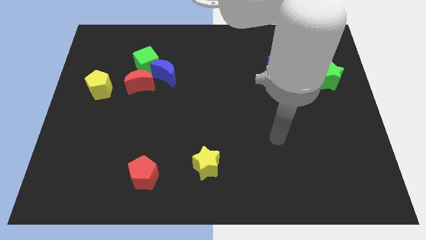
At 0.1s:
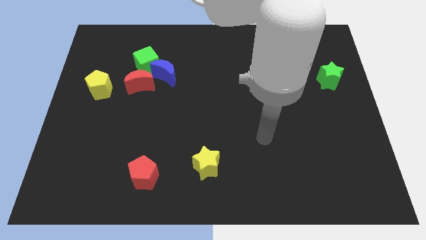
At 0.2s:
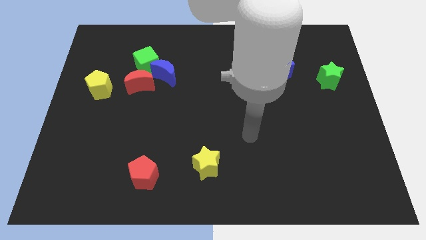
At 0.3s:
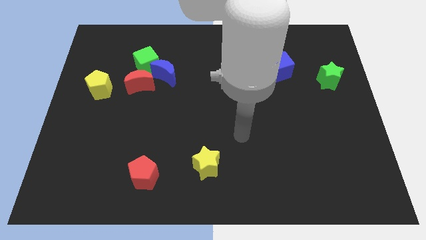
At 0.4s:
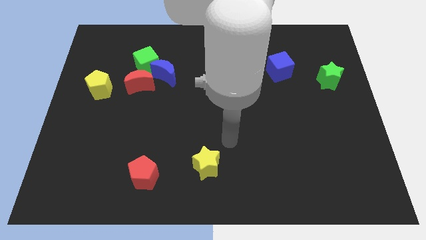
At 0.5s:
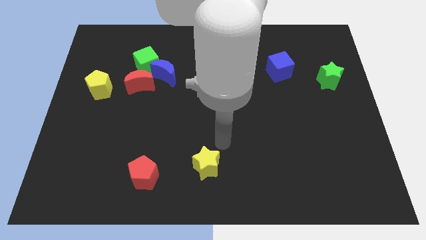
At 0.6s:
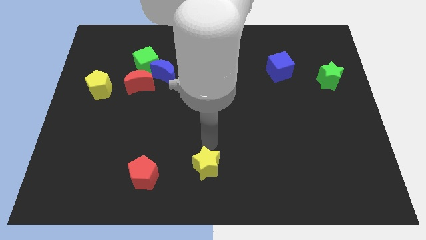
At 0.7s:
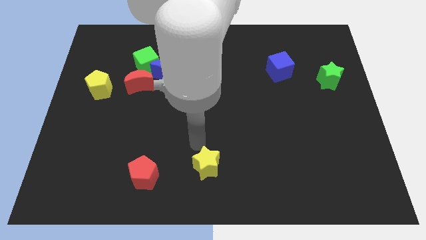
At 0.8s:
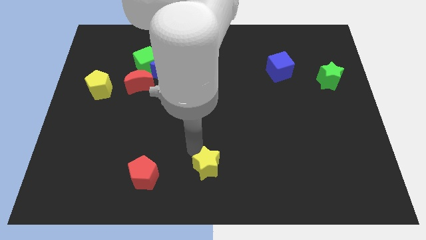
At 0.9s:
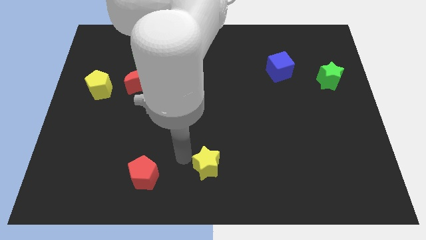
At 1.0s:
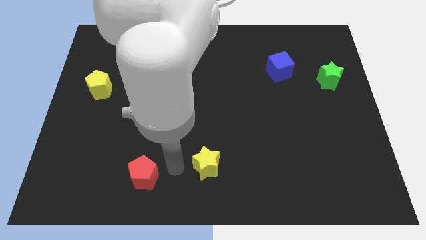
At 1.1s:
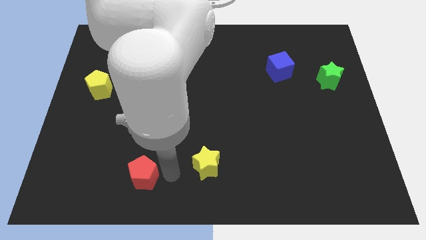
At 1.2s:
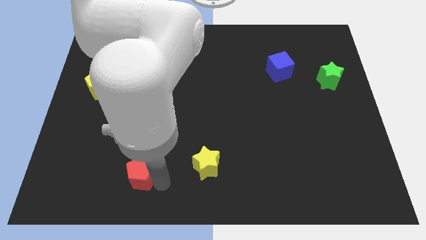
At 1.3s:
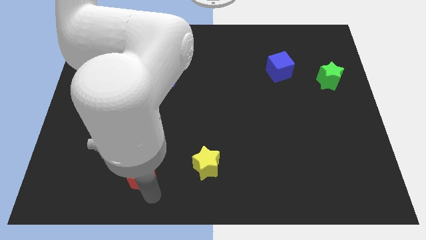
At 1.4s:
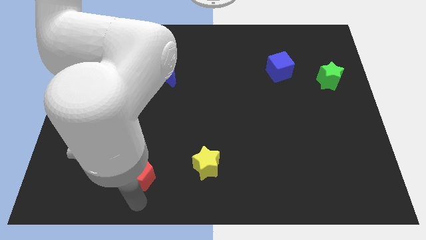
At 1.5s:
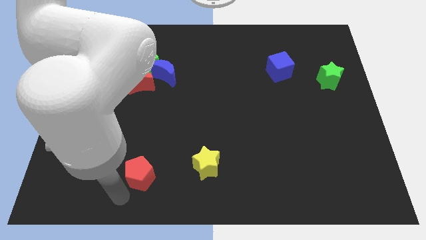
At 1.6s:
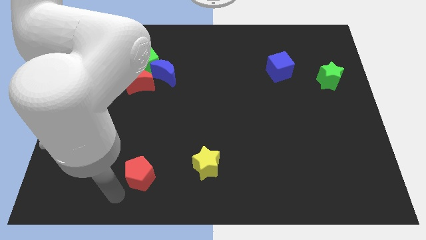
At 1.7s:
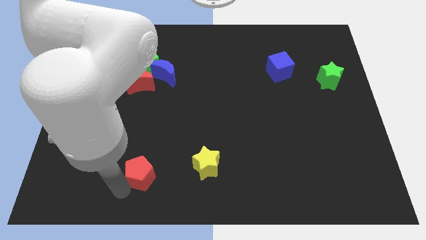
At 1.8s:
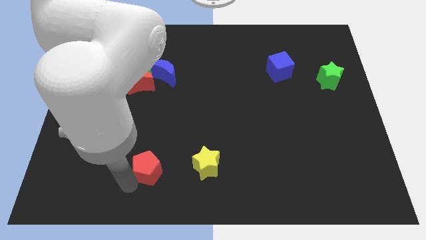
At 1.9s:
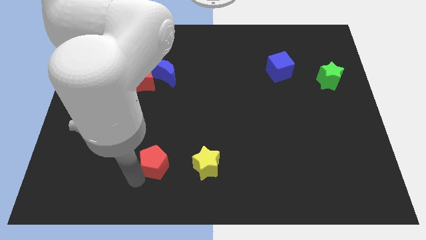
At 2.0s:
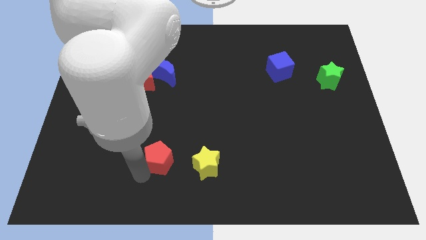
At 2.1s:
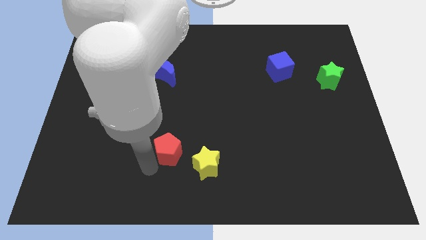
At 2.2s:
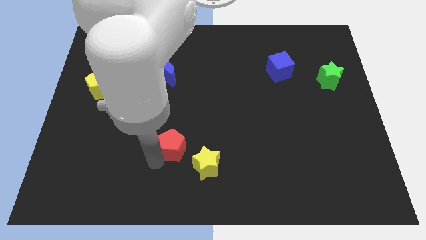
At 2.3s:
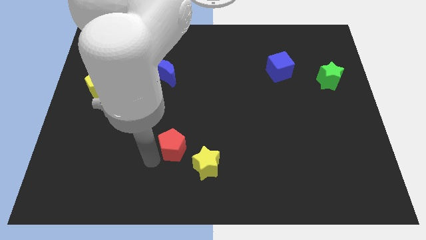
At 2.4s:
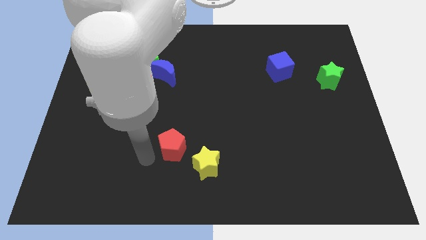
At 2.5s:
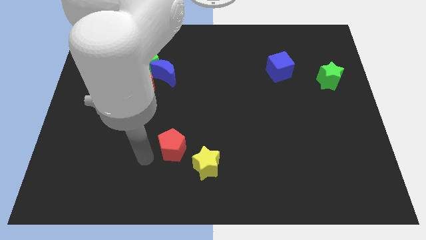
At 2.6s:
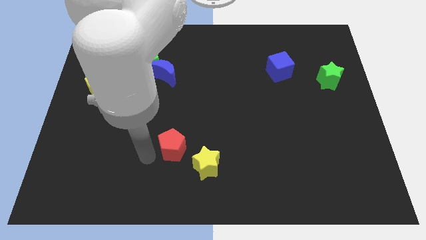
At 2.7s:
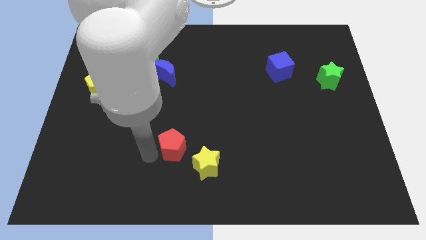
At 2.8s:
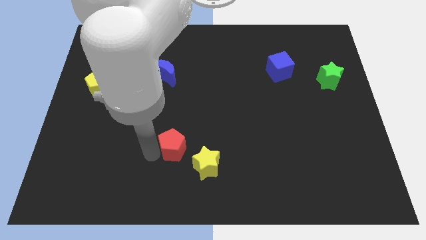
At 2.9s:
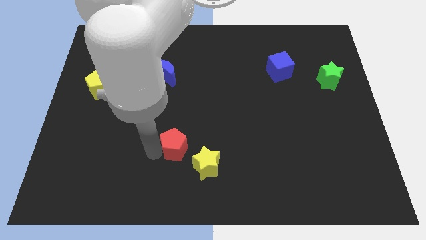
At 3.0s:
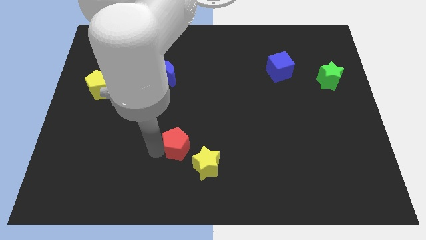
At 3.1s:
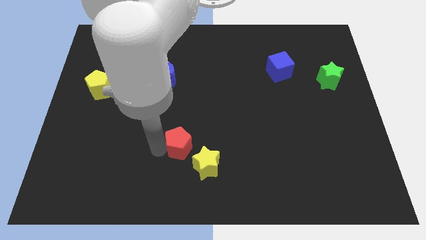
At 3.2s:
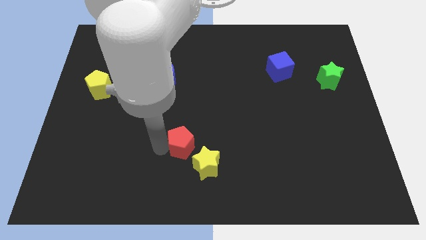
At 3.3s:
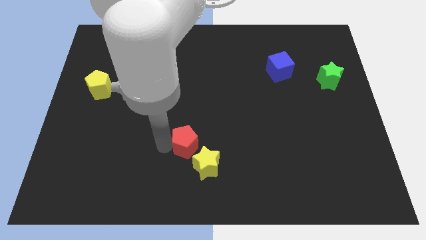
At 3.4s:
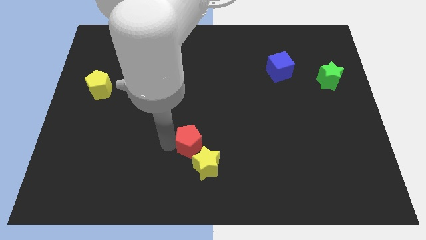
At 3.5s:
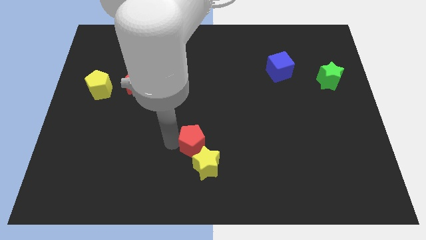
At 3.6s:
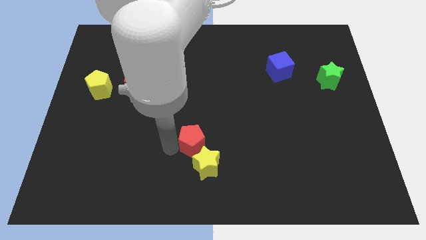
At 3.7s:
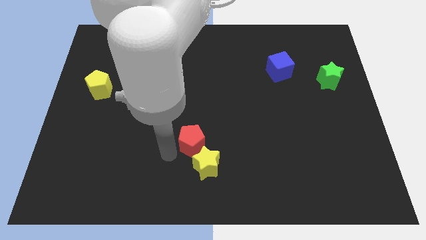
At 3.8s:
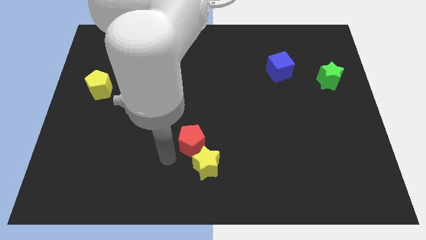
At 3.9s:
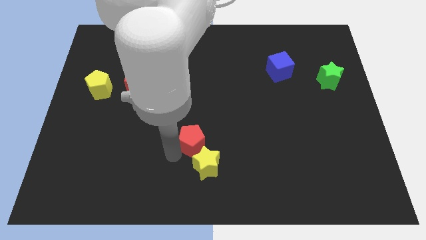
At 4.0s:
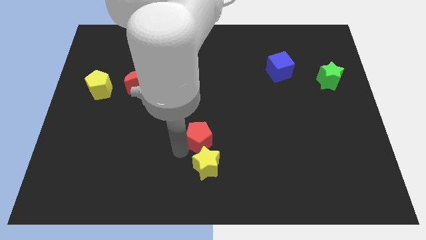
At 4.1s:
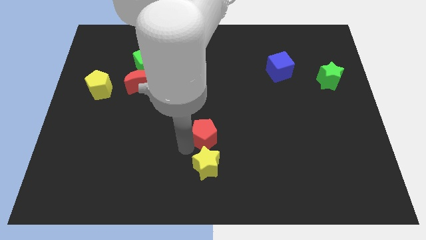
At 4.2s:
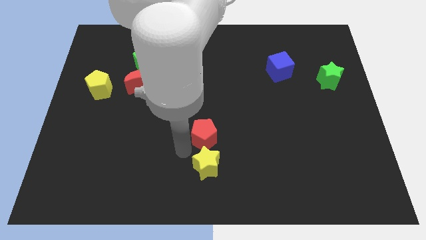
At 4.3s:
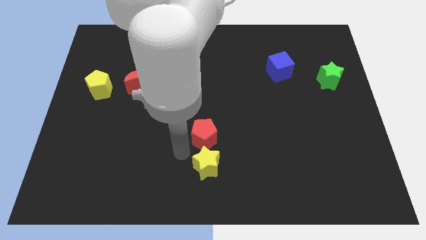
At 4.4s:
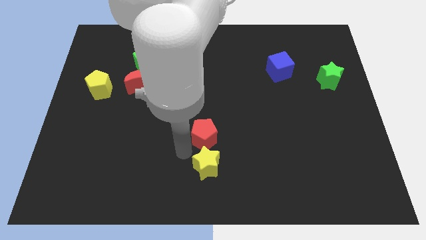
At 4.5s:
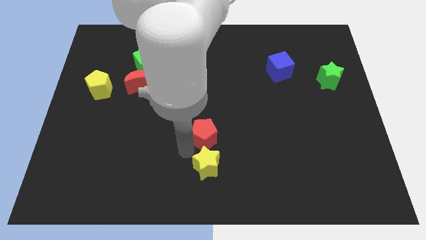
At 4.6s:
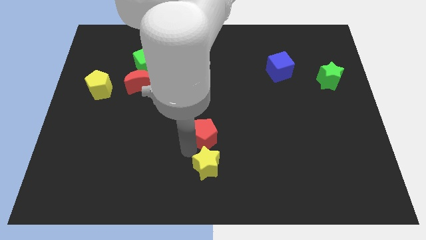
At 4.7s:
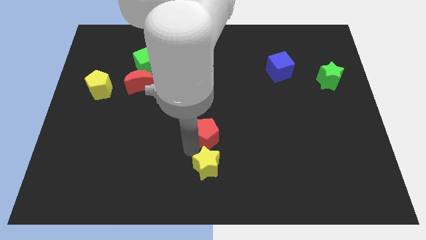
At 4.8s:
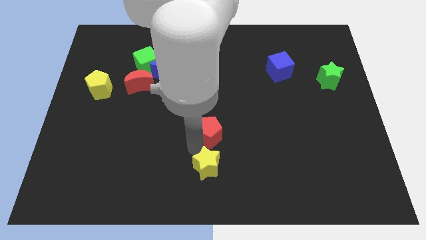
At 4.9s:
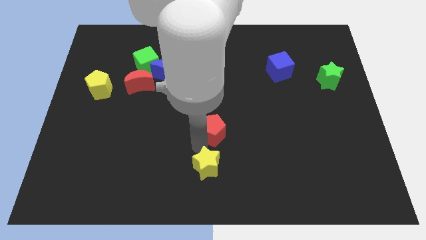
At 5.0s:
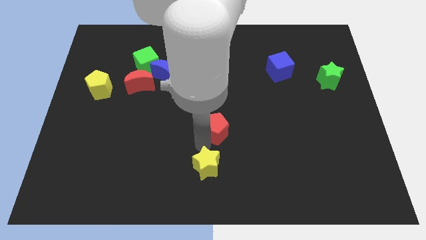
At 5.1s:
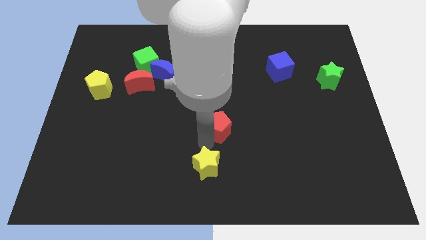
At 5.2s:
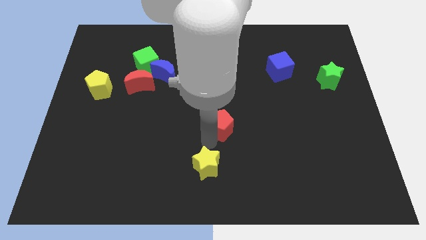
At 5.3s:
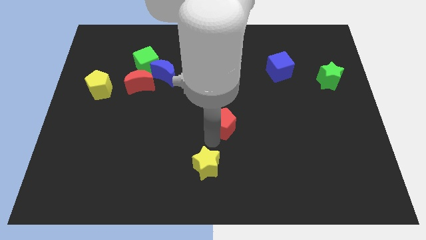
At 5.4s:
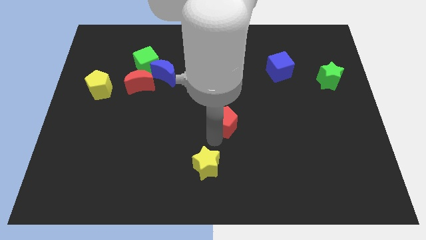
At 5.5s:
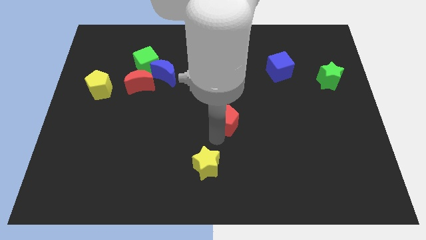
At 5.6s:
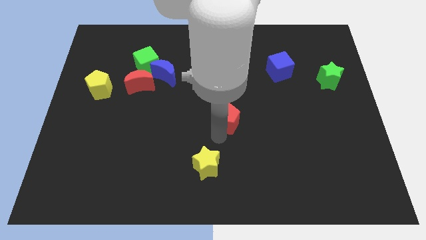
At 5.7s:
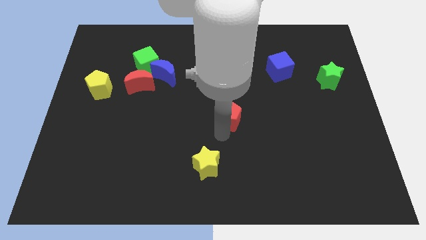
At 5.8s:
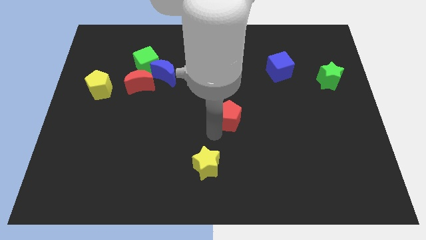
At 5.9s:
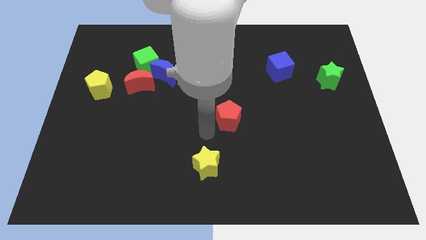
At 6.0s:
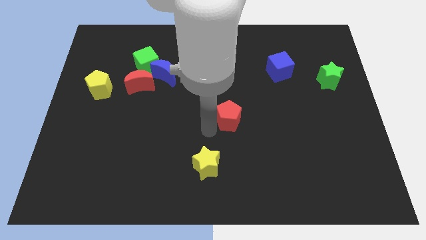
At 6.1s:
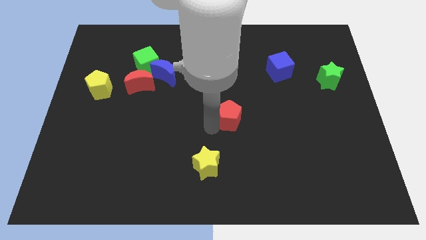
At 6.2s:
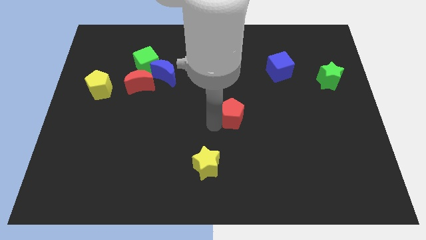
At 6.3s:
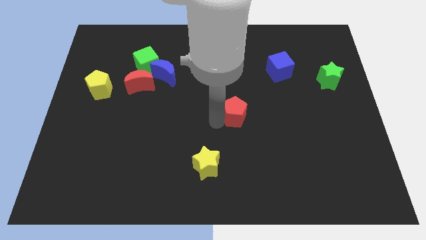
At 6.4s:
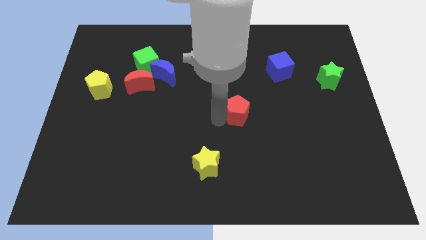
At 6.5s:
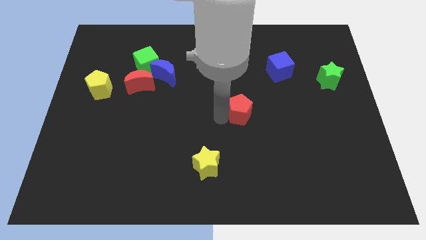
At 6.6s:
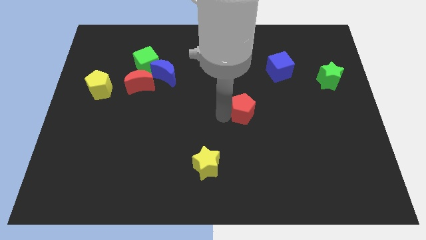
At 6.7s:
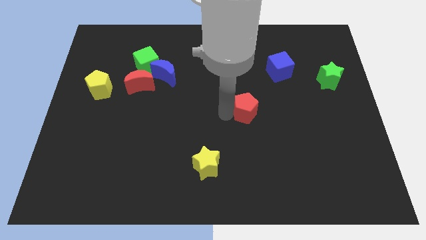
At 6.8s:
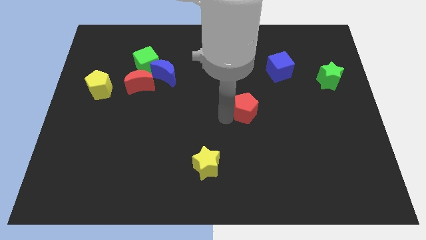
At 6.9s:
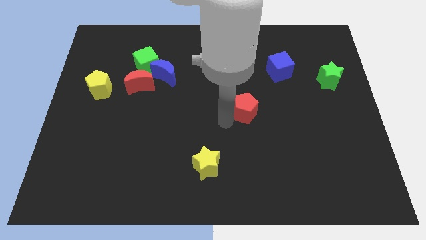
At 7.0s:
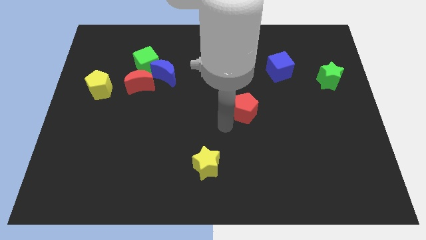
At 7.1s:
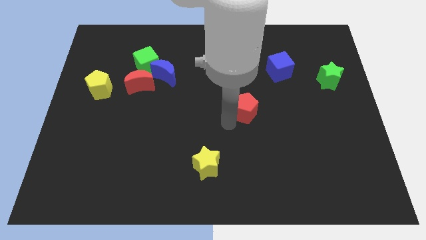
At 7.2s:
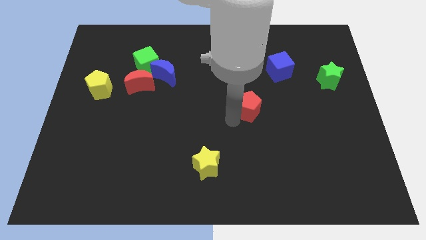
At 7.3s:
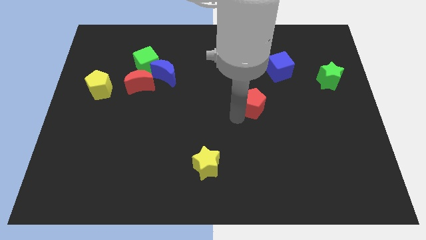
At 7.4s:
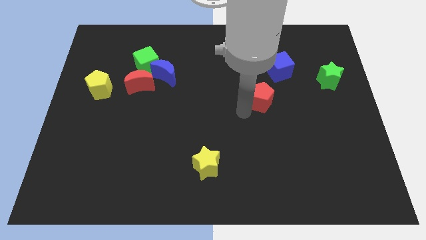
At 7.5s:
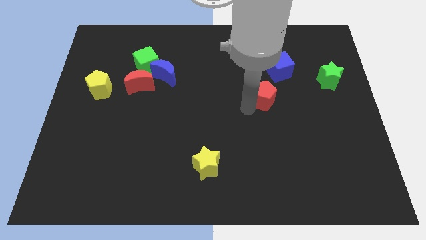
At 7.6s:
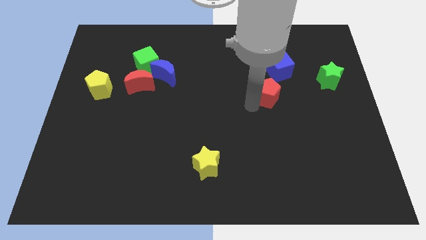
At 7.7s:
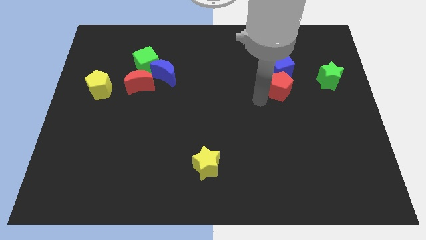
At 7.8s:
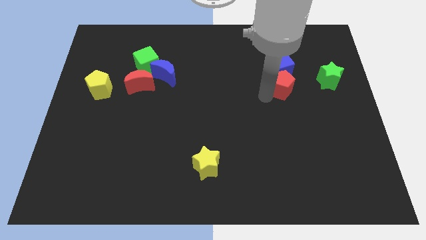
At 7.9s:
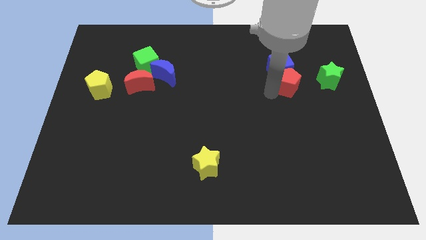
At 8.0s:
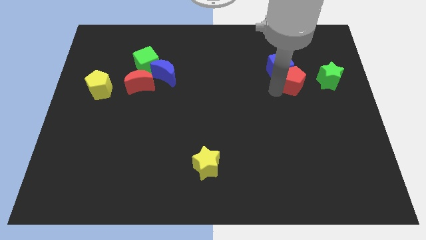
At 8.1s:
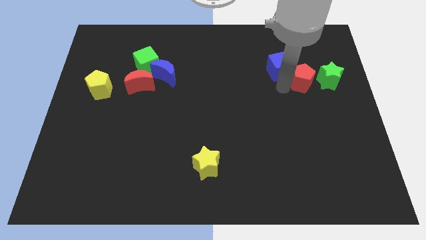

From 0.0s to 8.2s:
move the red pentagon to the right side of the blue cube
